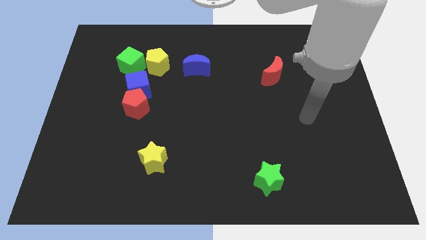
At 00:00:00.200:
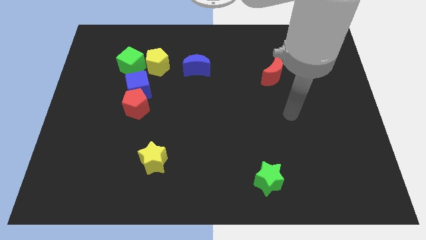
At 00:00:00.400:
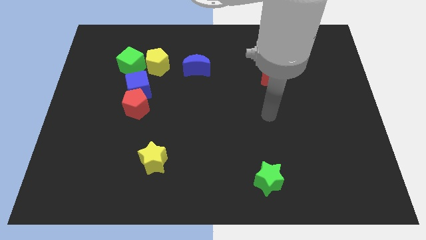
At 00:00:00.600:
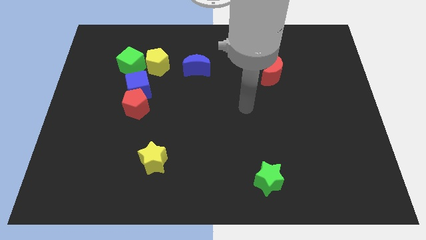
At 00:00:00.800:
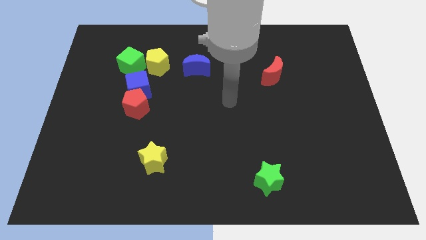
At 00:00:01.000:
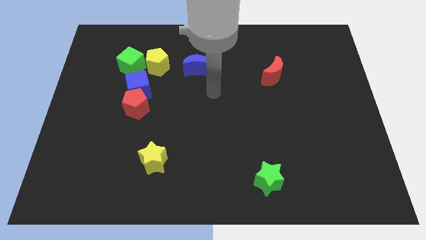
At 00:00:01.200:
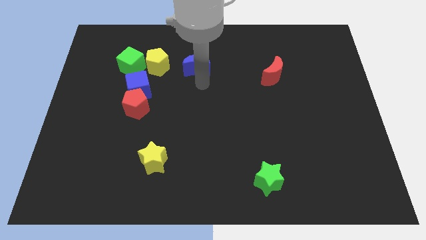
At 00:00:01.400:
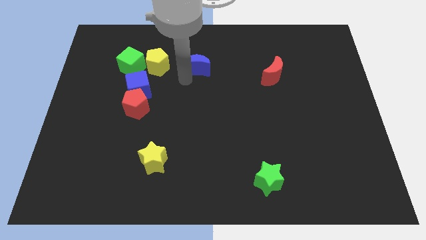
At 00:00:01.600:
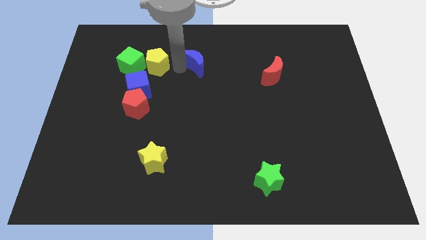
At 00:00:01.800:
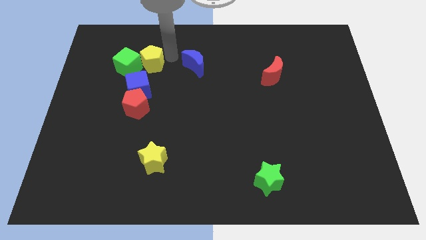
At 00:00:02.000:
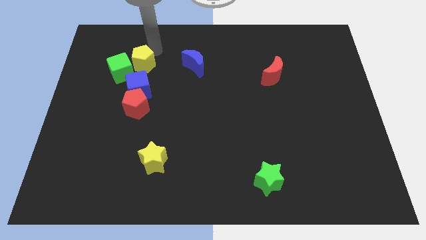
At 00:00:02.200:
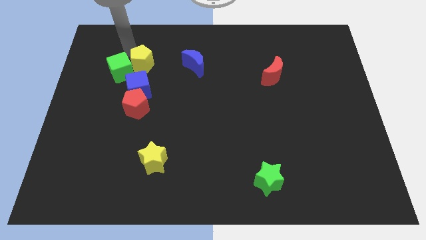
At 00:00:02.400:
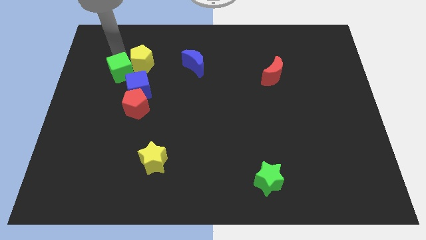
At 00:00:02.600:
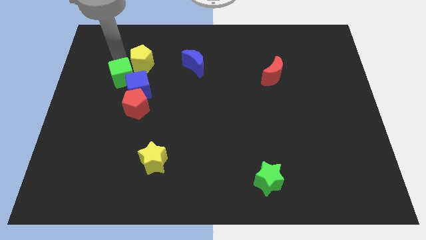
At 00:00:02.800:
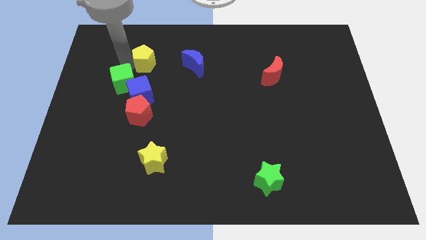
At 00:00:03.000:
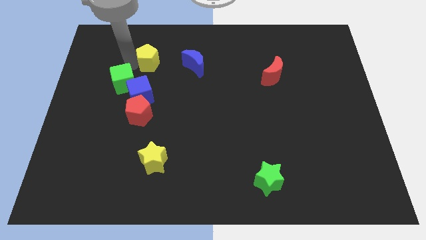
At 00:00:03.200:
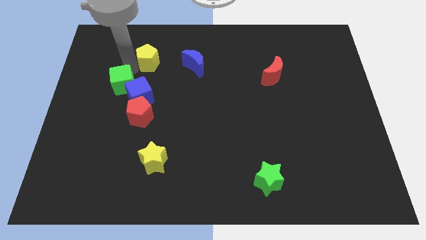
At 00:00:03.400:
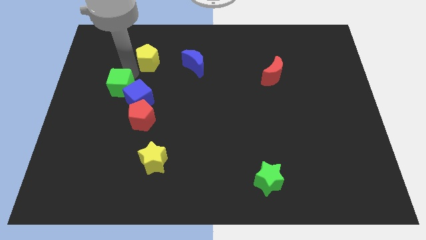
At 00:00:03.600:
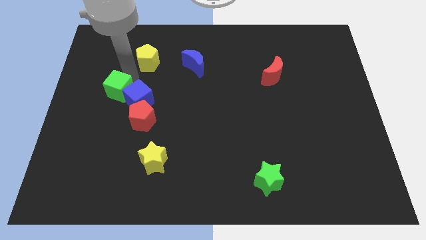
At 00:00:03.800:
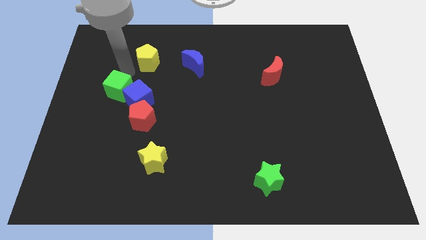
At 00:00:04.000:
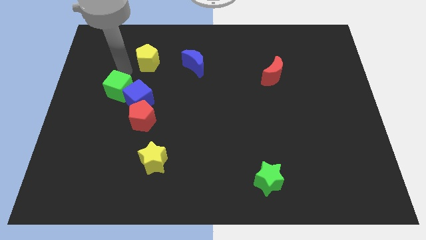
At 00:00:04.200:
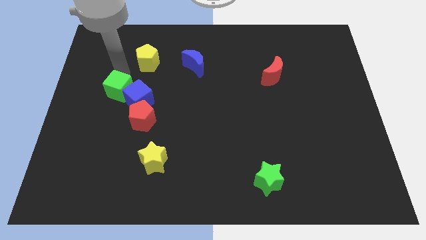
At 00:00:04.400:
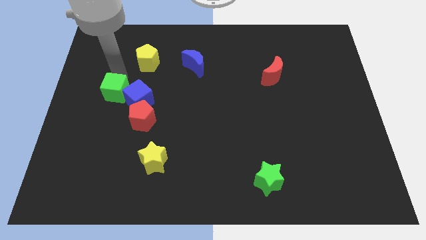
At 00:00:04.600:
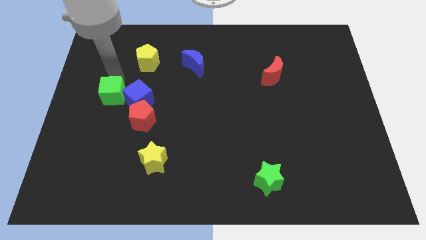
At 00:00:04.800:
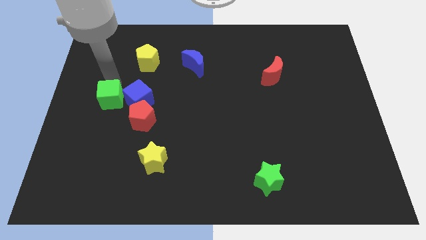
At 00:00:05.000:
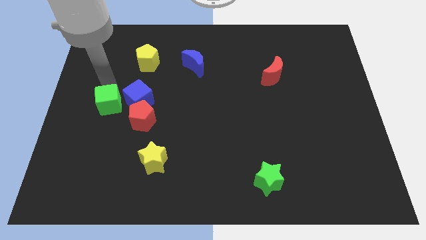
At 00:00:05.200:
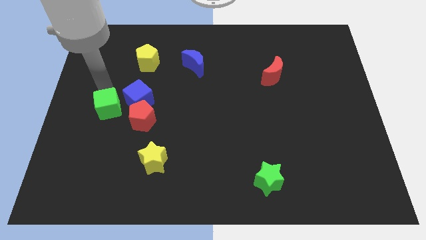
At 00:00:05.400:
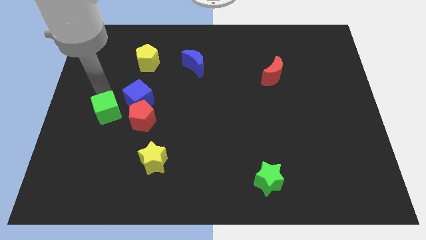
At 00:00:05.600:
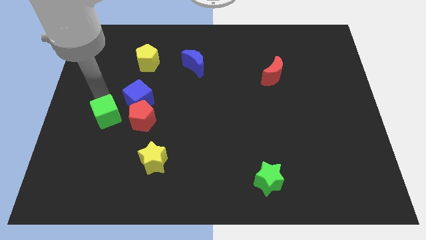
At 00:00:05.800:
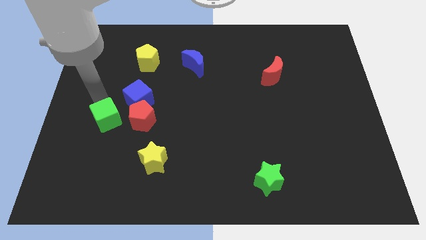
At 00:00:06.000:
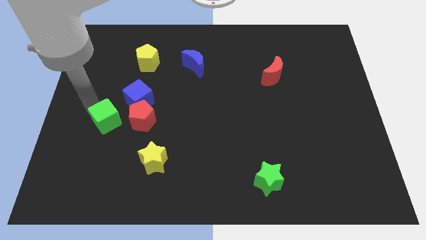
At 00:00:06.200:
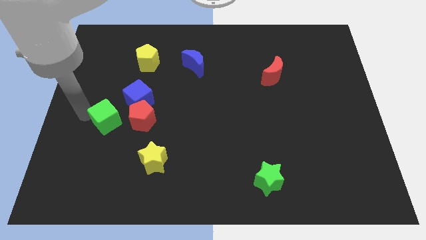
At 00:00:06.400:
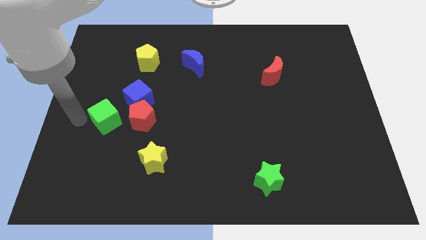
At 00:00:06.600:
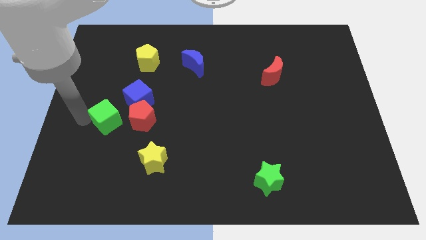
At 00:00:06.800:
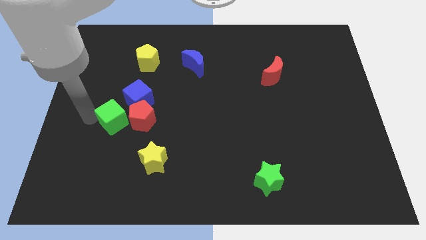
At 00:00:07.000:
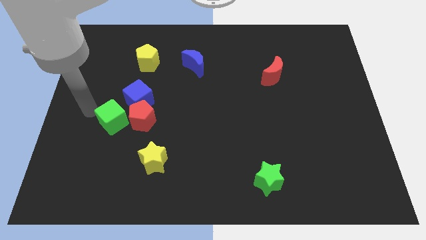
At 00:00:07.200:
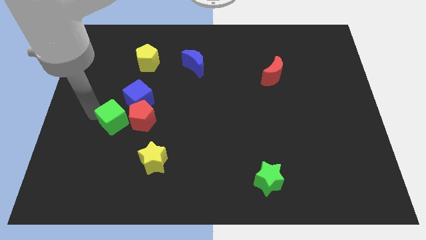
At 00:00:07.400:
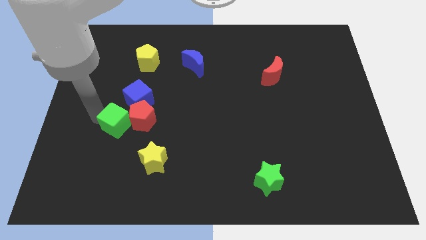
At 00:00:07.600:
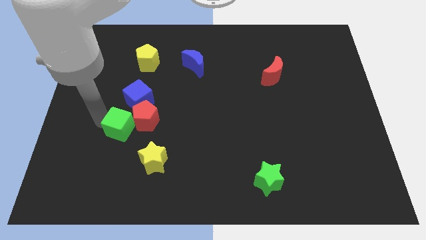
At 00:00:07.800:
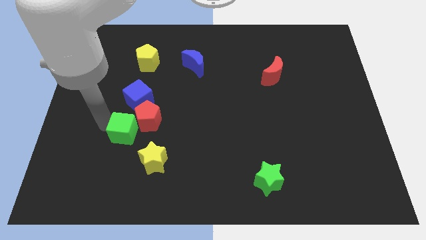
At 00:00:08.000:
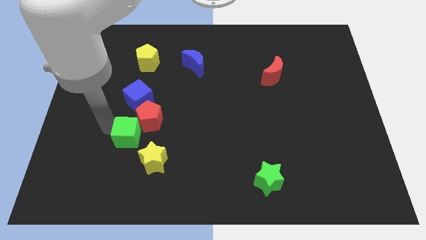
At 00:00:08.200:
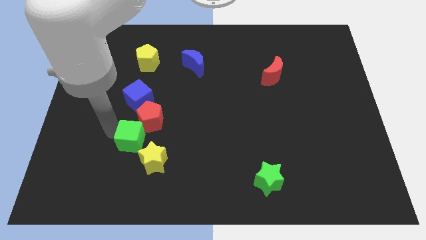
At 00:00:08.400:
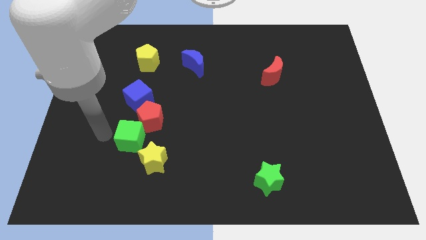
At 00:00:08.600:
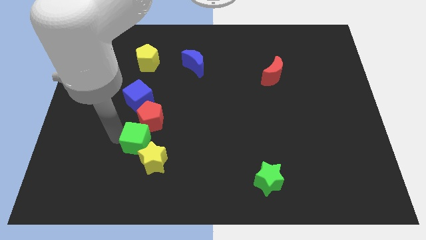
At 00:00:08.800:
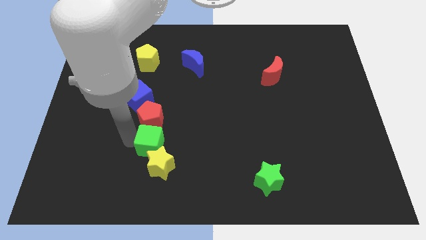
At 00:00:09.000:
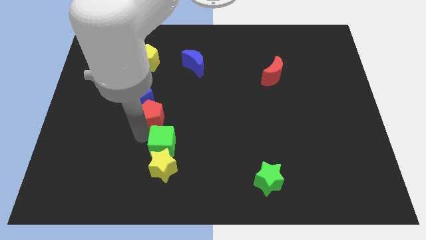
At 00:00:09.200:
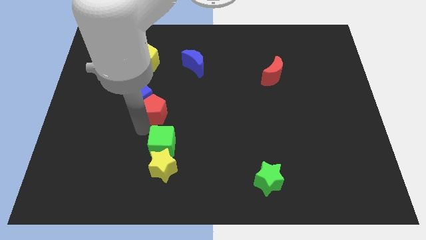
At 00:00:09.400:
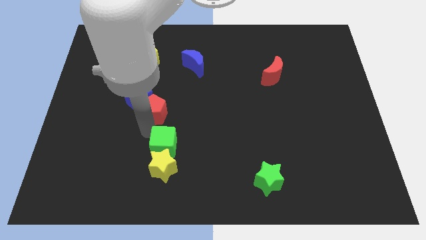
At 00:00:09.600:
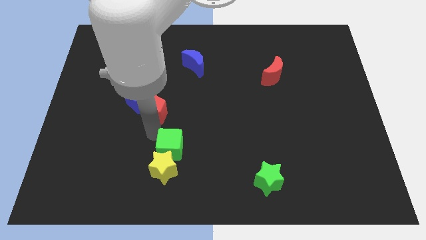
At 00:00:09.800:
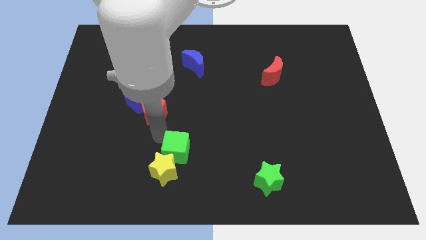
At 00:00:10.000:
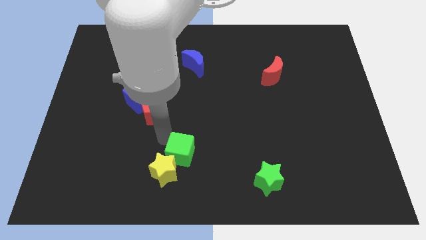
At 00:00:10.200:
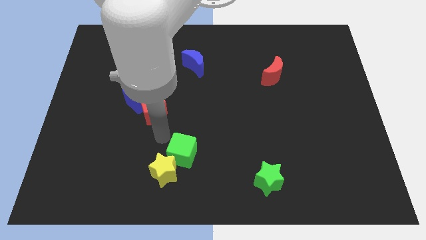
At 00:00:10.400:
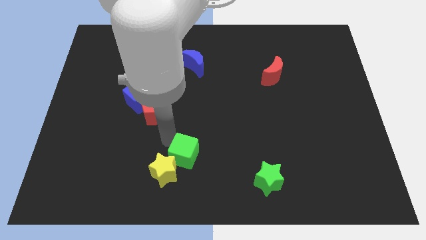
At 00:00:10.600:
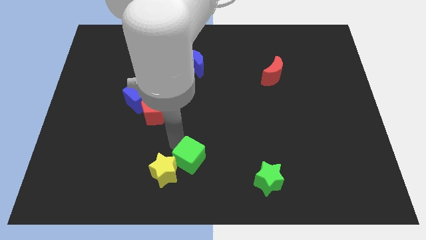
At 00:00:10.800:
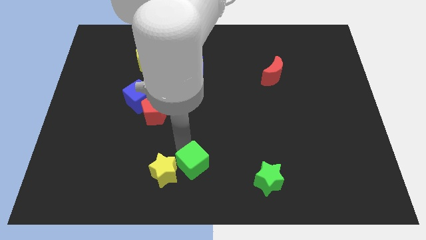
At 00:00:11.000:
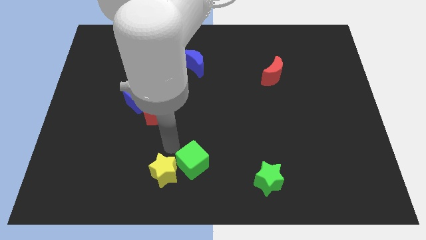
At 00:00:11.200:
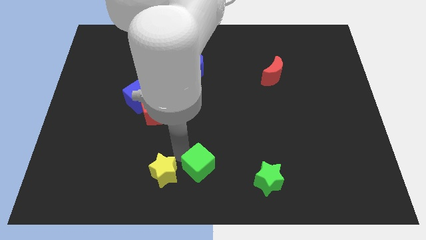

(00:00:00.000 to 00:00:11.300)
move the green cube to the left side of the green star

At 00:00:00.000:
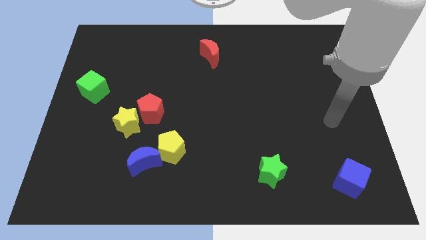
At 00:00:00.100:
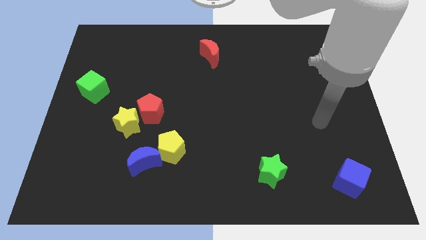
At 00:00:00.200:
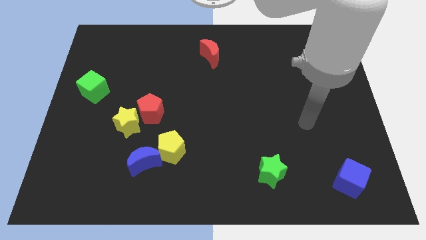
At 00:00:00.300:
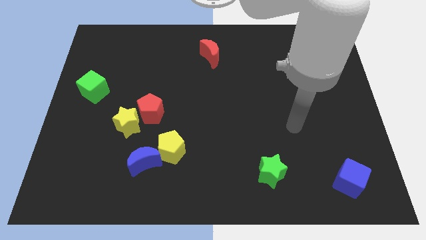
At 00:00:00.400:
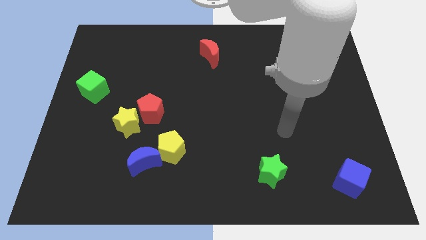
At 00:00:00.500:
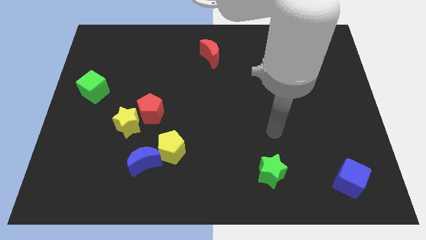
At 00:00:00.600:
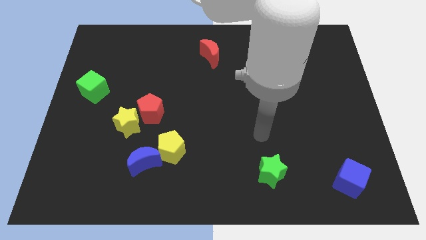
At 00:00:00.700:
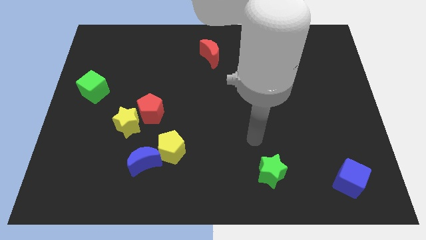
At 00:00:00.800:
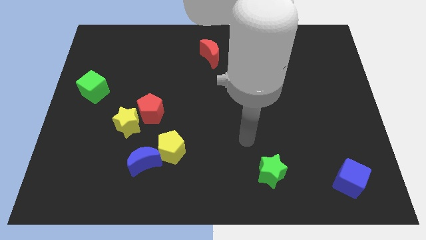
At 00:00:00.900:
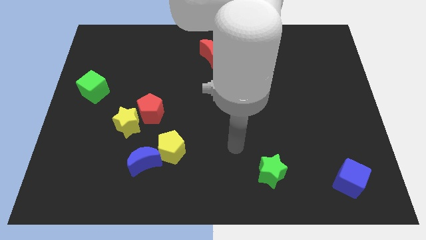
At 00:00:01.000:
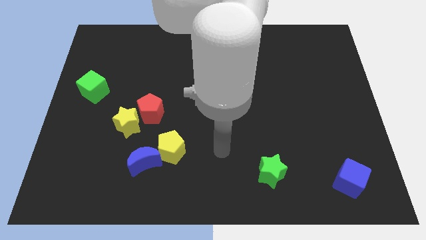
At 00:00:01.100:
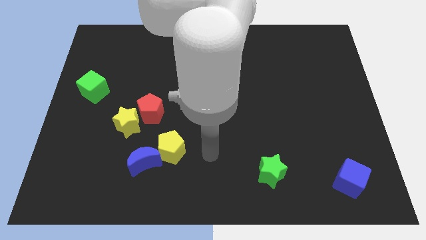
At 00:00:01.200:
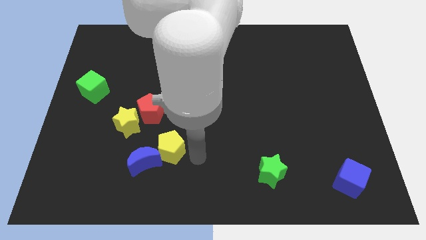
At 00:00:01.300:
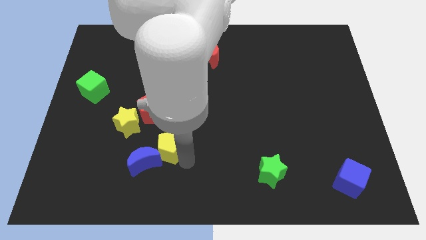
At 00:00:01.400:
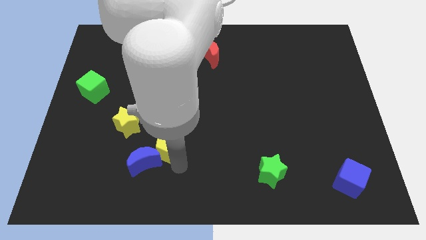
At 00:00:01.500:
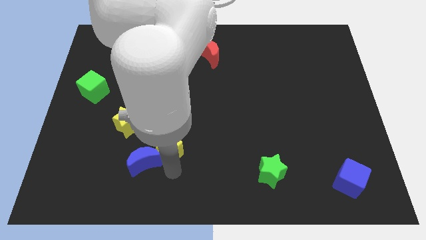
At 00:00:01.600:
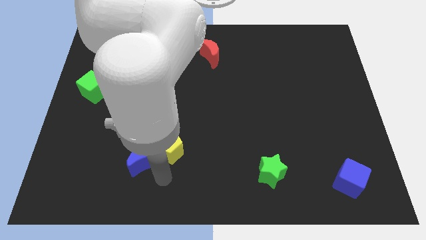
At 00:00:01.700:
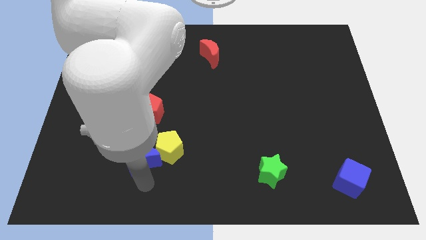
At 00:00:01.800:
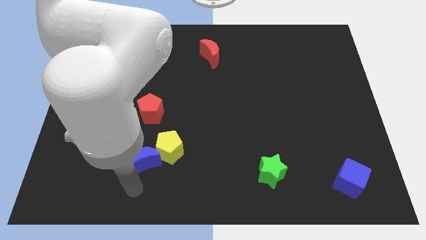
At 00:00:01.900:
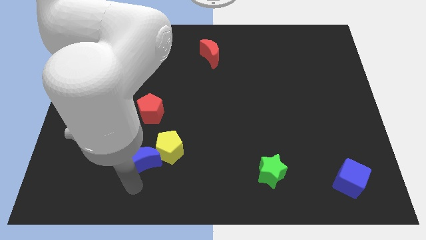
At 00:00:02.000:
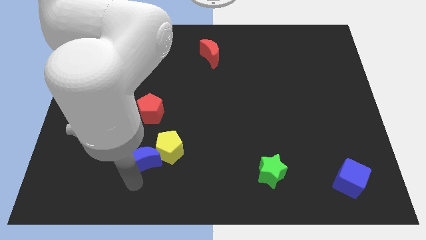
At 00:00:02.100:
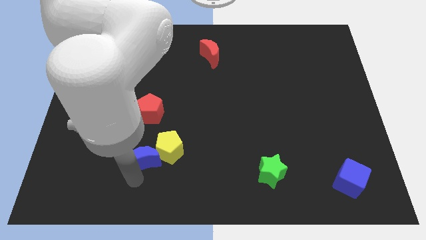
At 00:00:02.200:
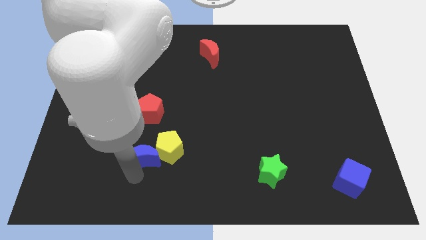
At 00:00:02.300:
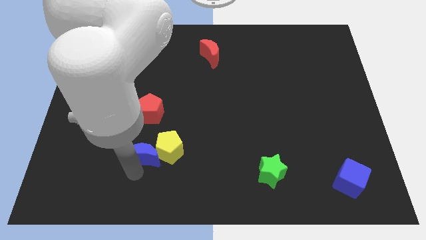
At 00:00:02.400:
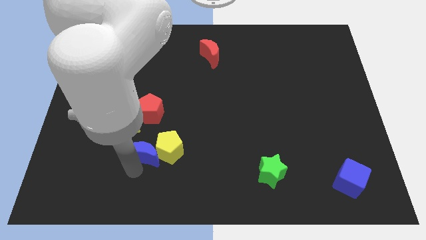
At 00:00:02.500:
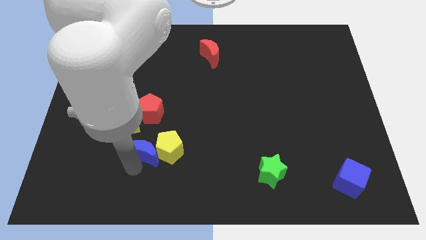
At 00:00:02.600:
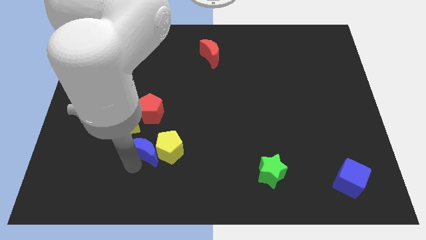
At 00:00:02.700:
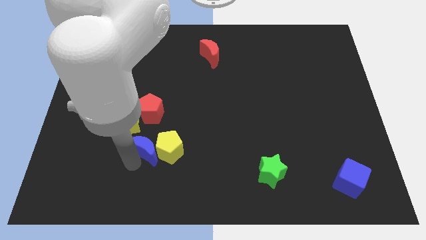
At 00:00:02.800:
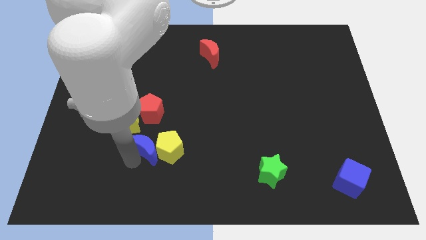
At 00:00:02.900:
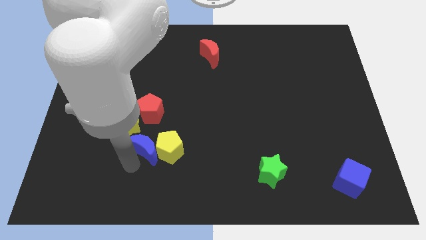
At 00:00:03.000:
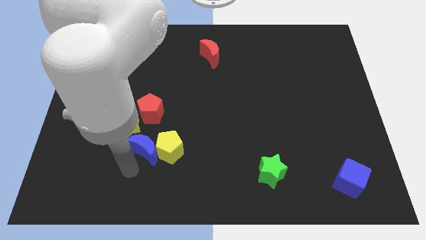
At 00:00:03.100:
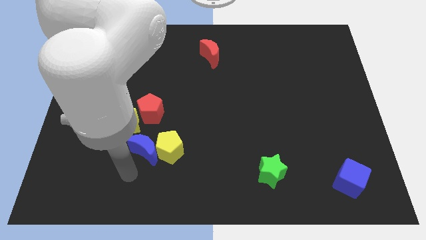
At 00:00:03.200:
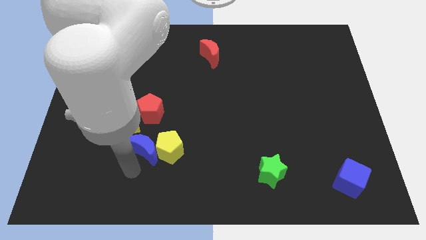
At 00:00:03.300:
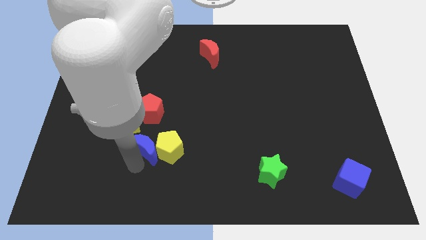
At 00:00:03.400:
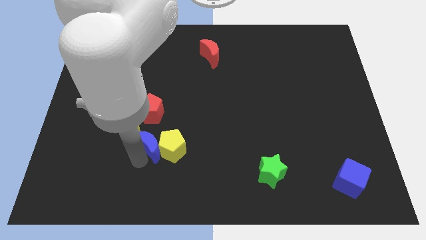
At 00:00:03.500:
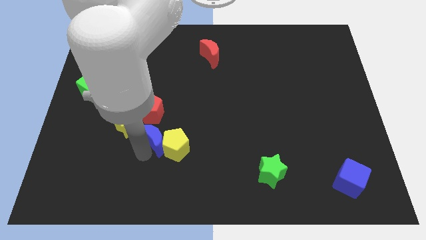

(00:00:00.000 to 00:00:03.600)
slide the blue moon to the bottom right side of the red pentagon
